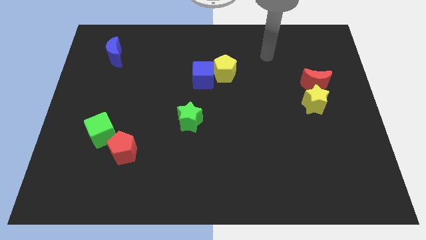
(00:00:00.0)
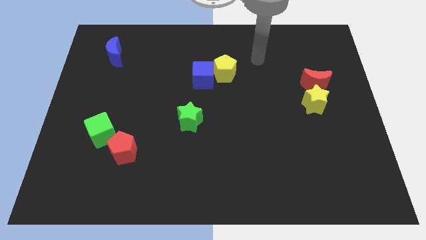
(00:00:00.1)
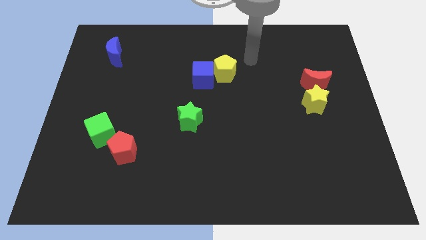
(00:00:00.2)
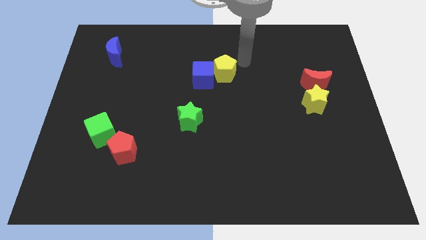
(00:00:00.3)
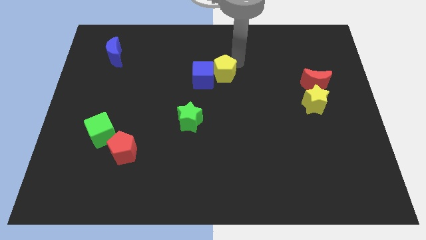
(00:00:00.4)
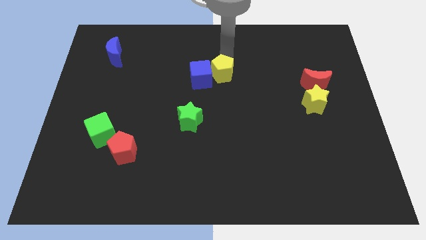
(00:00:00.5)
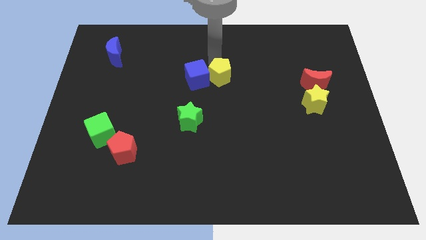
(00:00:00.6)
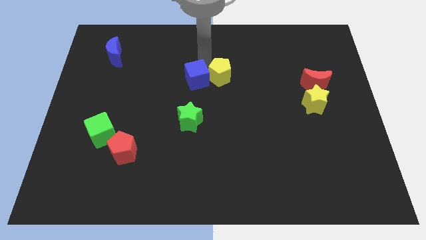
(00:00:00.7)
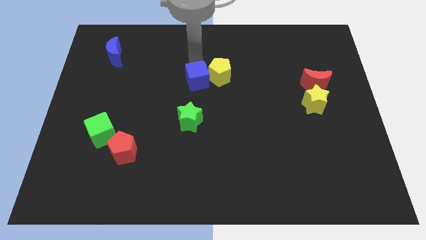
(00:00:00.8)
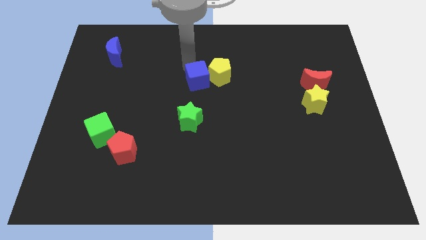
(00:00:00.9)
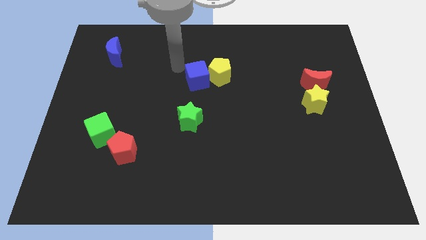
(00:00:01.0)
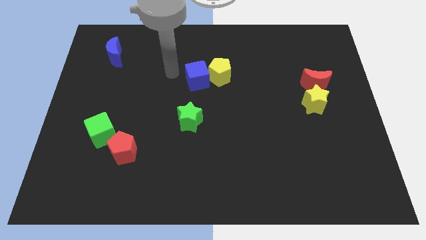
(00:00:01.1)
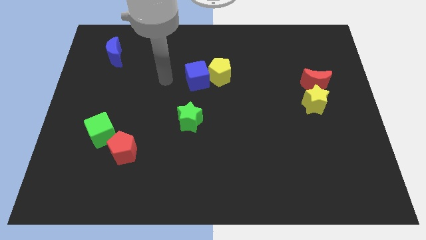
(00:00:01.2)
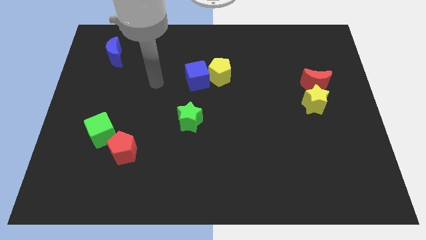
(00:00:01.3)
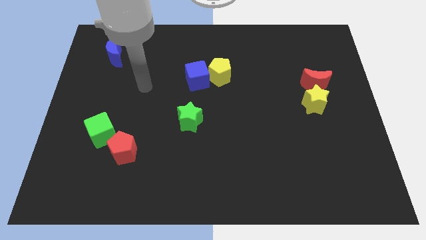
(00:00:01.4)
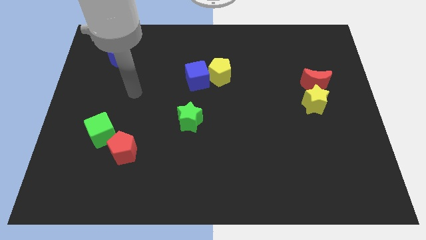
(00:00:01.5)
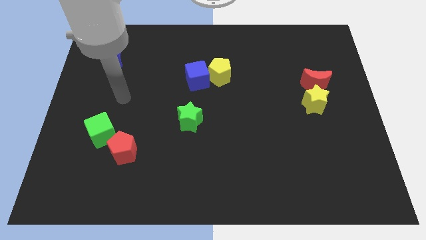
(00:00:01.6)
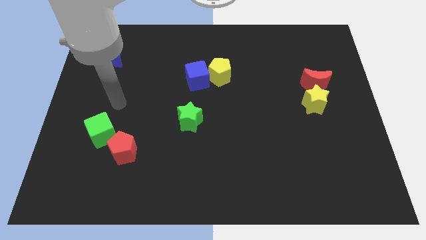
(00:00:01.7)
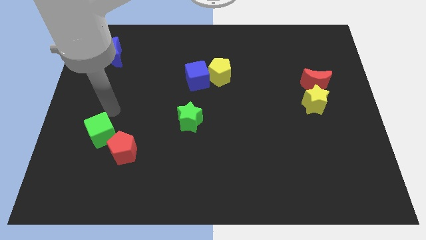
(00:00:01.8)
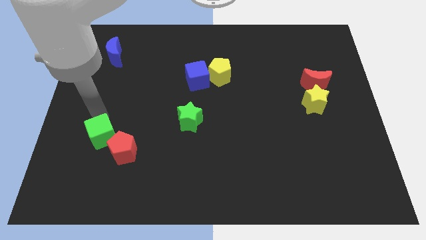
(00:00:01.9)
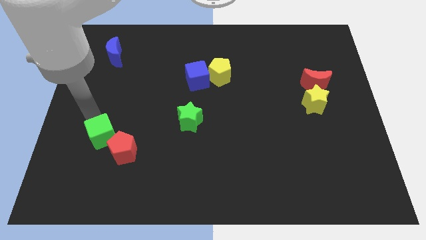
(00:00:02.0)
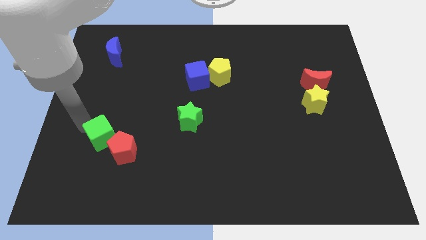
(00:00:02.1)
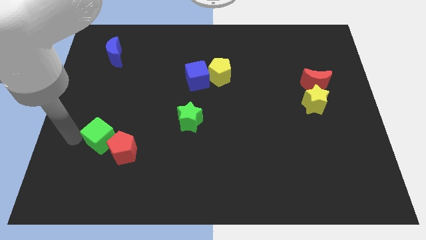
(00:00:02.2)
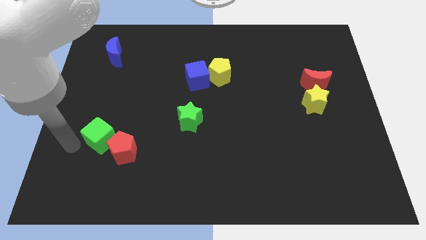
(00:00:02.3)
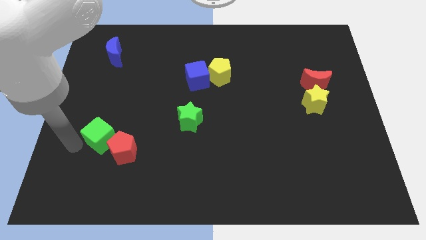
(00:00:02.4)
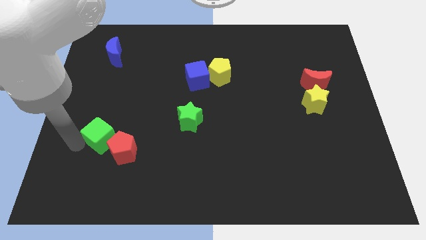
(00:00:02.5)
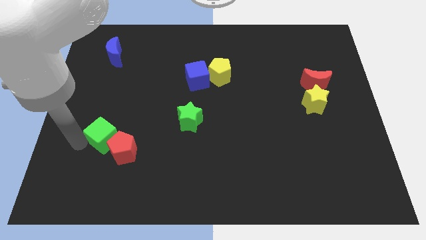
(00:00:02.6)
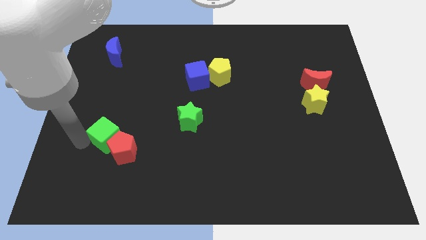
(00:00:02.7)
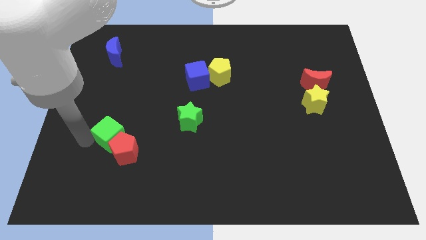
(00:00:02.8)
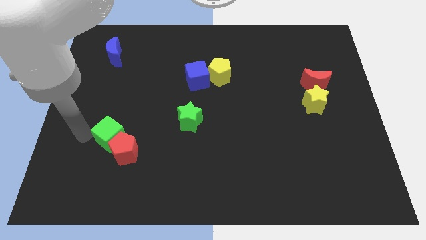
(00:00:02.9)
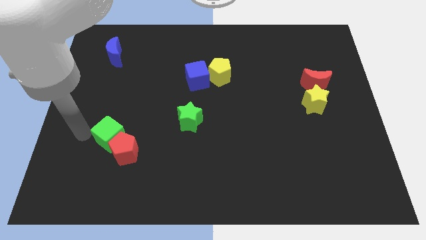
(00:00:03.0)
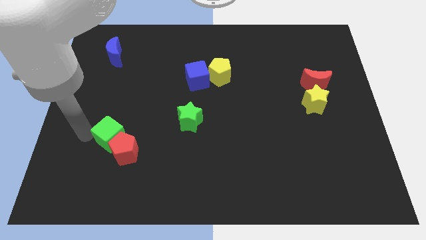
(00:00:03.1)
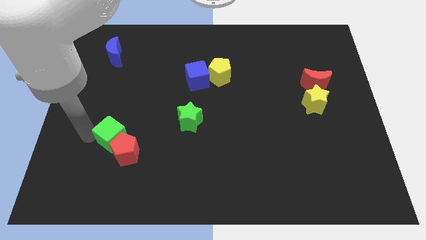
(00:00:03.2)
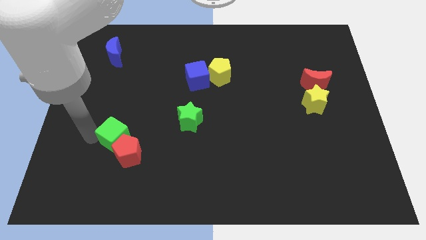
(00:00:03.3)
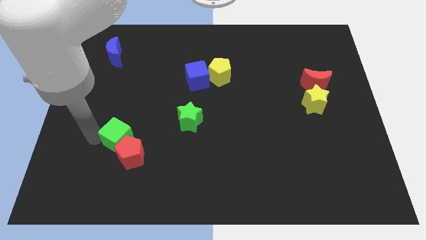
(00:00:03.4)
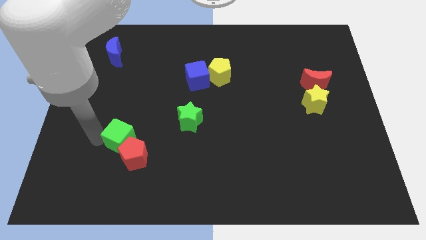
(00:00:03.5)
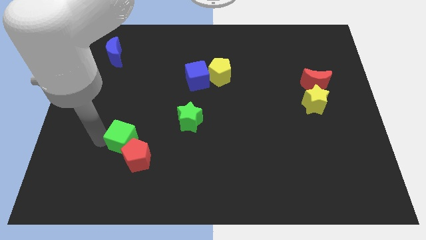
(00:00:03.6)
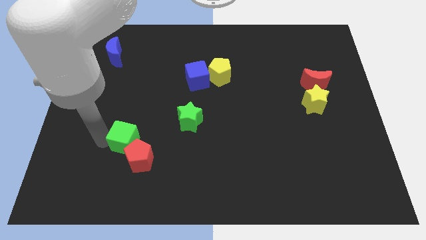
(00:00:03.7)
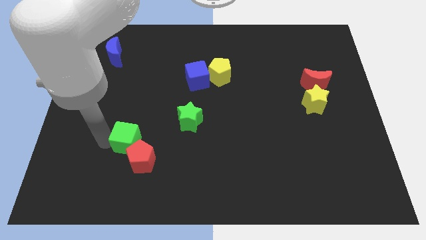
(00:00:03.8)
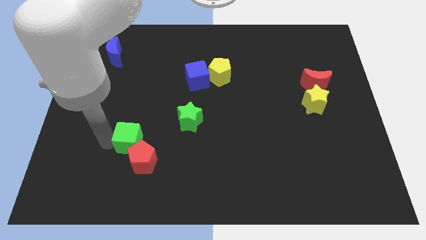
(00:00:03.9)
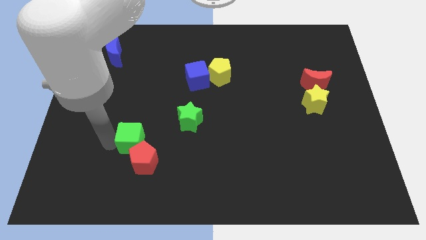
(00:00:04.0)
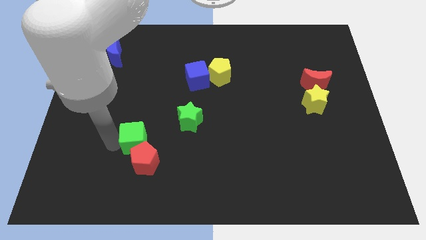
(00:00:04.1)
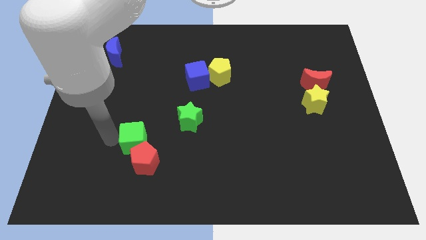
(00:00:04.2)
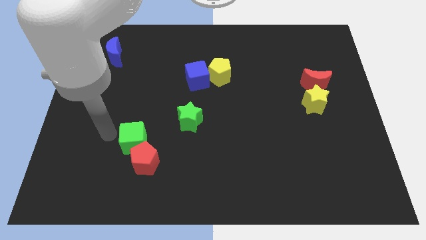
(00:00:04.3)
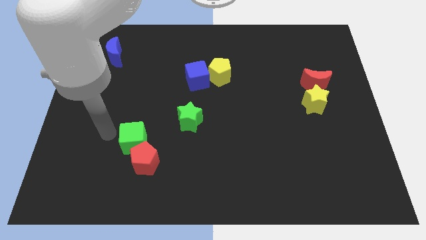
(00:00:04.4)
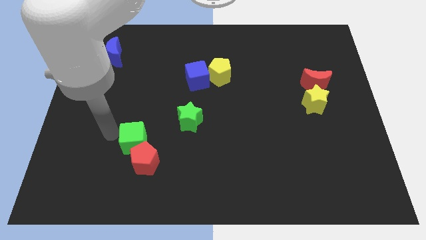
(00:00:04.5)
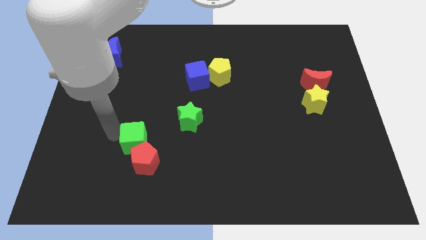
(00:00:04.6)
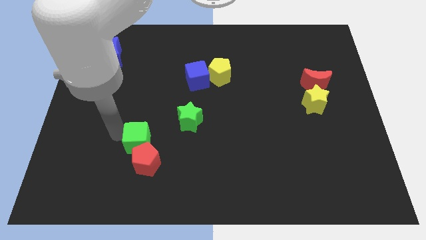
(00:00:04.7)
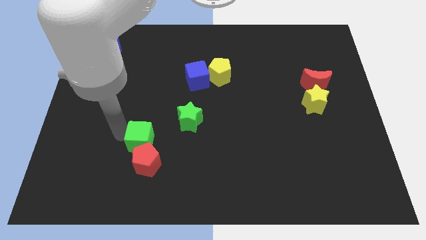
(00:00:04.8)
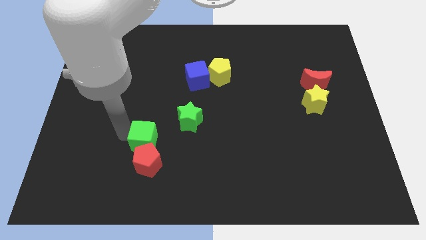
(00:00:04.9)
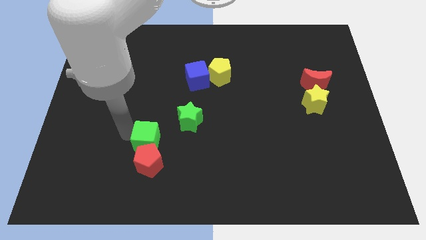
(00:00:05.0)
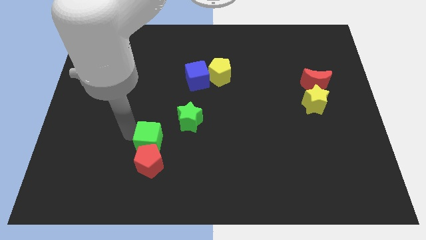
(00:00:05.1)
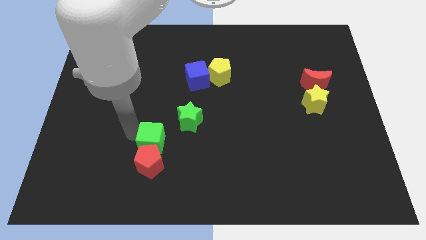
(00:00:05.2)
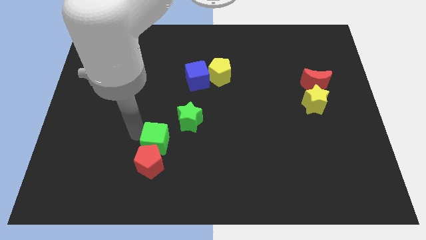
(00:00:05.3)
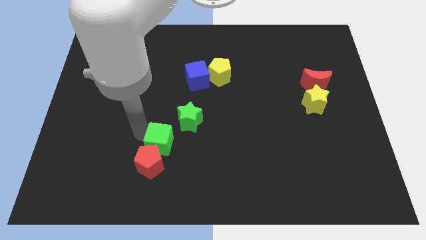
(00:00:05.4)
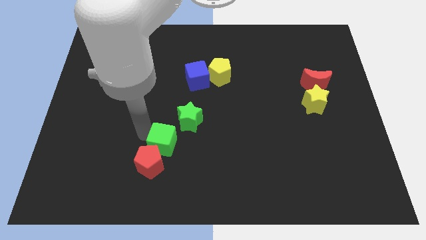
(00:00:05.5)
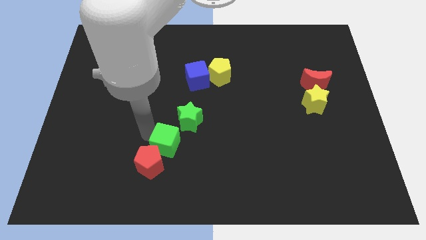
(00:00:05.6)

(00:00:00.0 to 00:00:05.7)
push the green cube to the bottom side of the green star

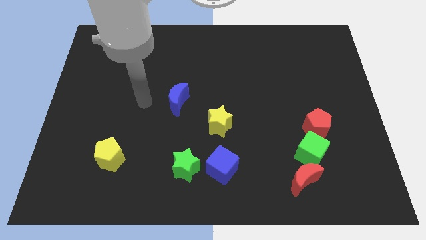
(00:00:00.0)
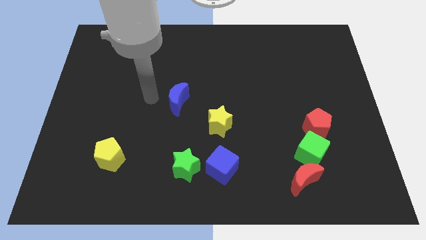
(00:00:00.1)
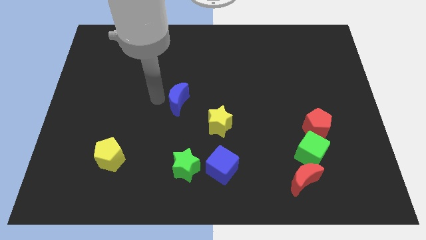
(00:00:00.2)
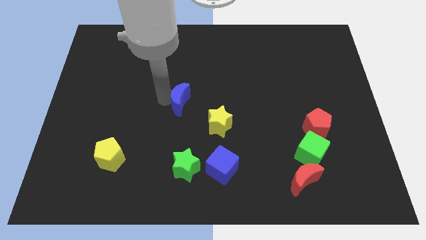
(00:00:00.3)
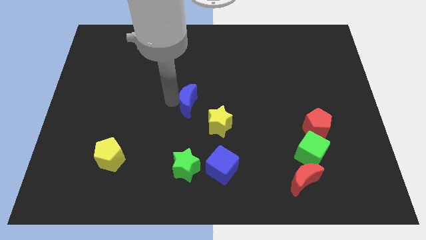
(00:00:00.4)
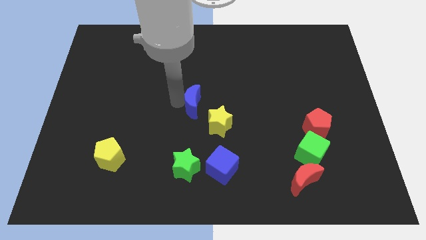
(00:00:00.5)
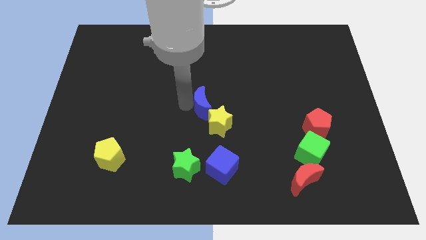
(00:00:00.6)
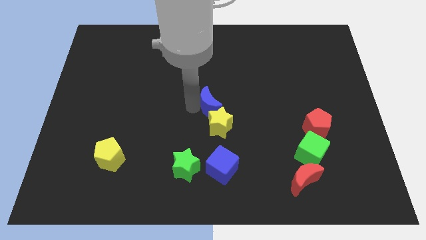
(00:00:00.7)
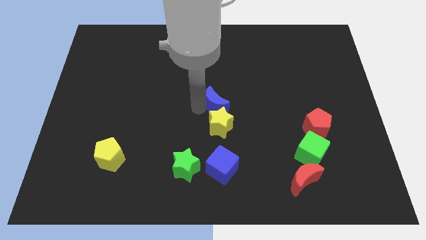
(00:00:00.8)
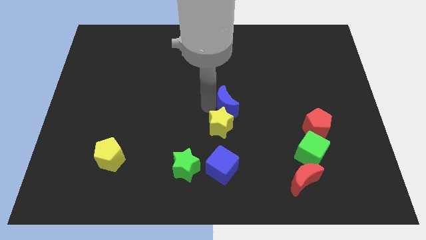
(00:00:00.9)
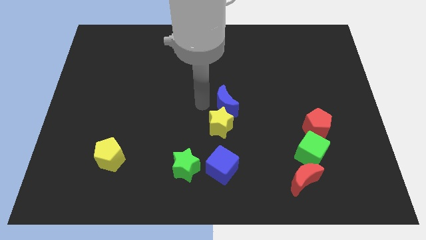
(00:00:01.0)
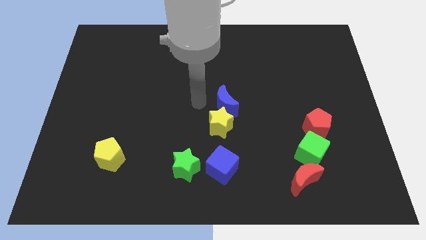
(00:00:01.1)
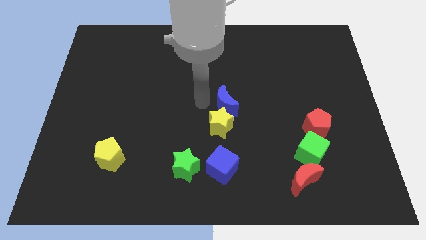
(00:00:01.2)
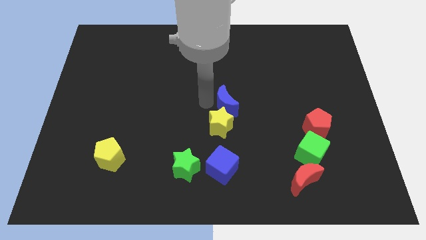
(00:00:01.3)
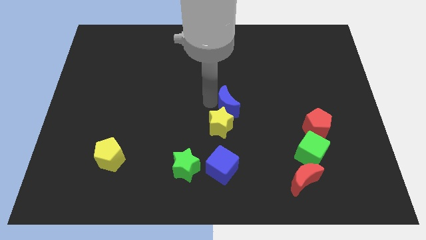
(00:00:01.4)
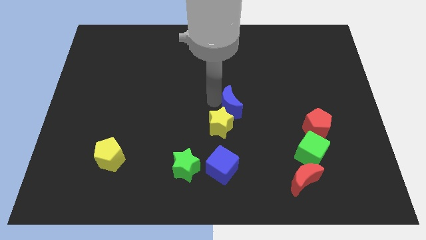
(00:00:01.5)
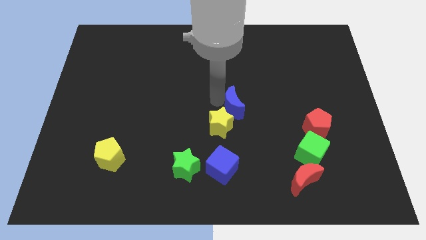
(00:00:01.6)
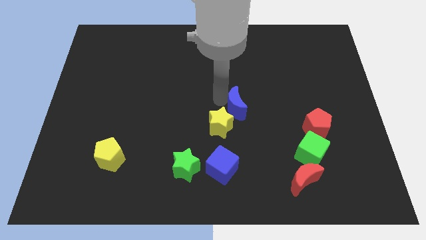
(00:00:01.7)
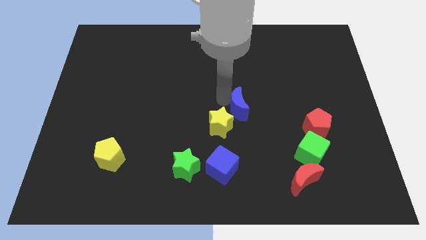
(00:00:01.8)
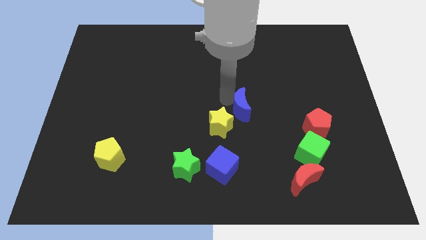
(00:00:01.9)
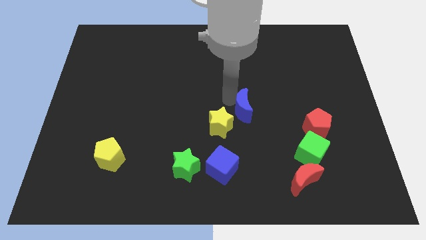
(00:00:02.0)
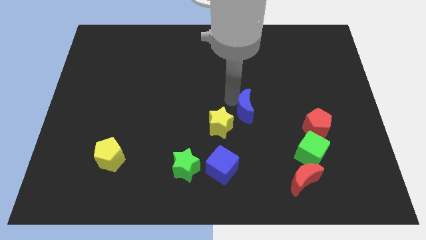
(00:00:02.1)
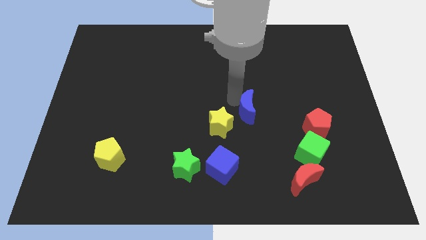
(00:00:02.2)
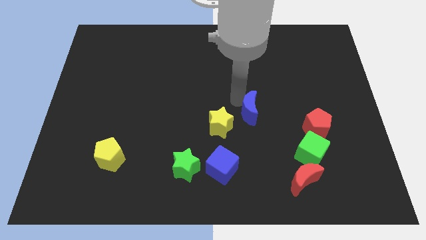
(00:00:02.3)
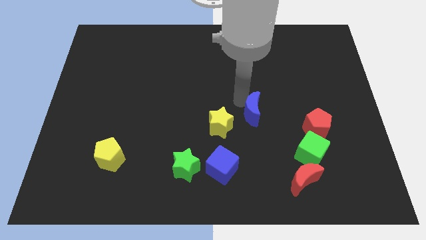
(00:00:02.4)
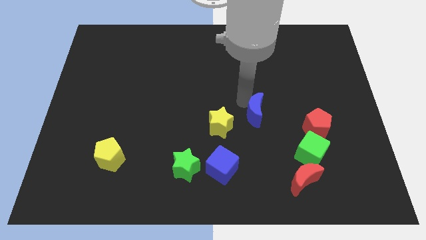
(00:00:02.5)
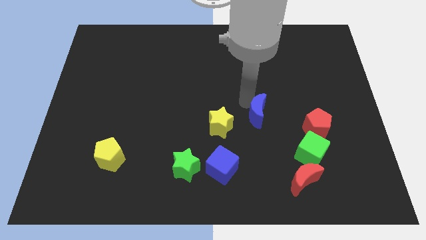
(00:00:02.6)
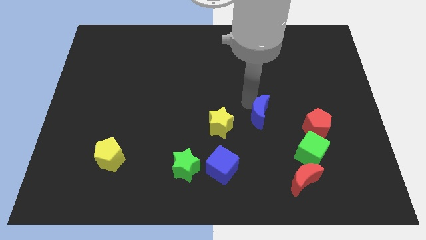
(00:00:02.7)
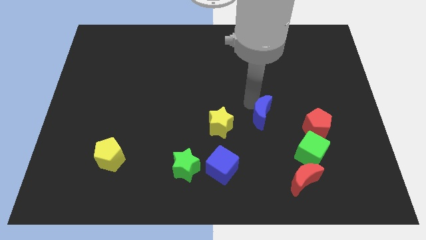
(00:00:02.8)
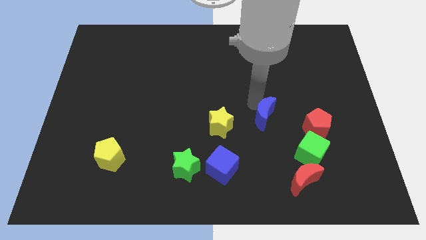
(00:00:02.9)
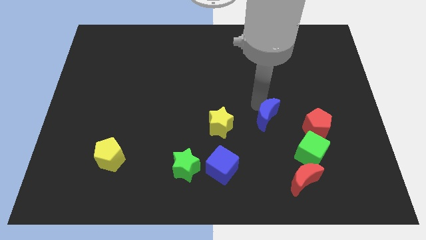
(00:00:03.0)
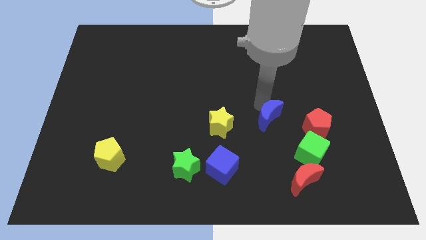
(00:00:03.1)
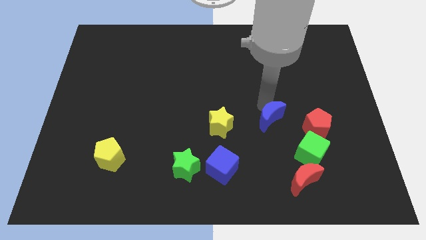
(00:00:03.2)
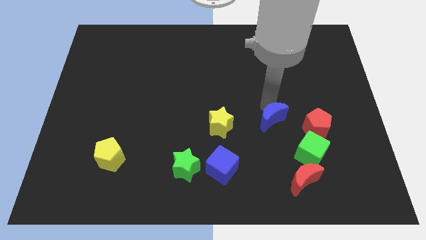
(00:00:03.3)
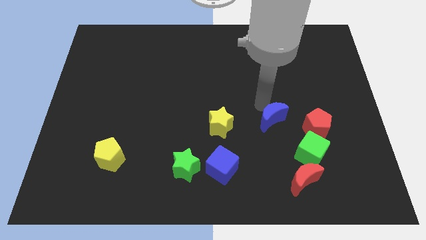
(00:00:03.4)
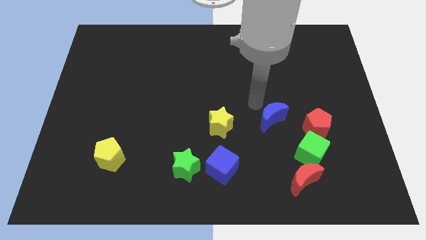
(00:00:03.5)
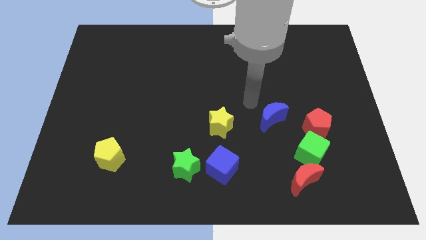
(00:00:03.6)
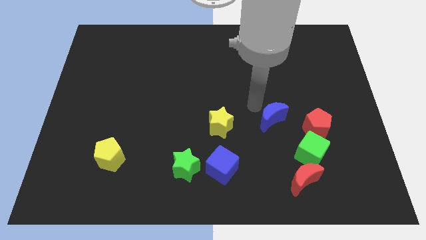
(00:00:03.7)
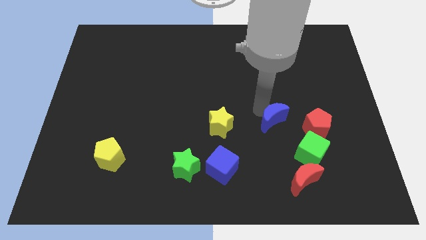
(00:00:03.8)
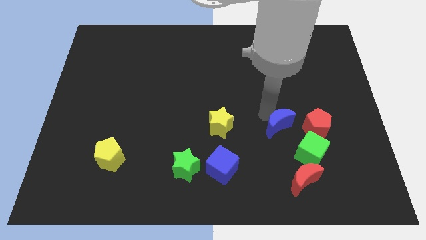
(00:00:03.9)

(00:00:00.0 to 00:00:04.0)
put the blue moon above the red moon
